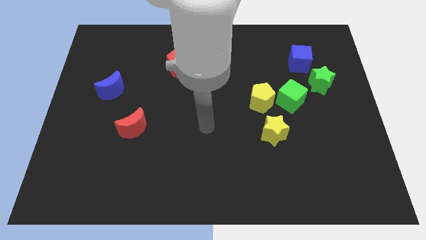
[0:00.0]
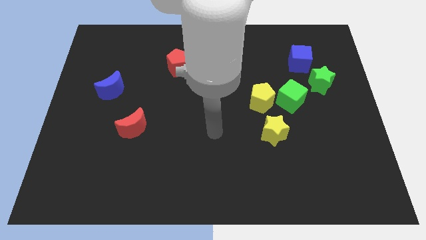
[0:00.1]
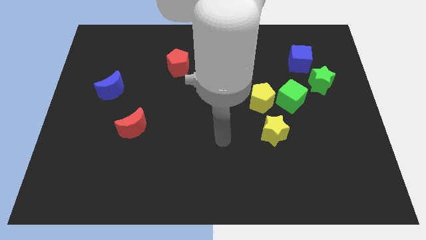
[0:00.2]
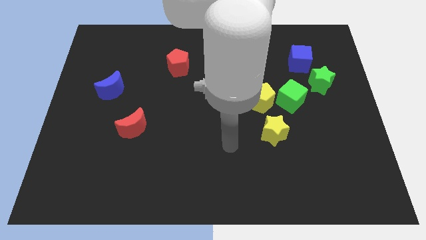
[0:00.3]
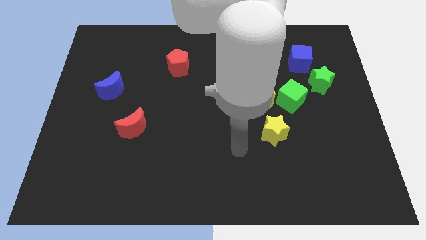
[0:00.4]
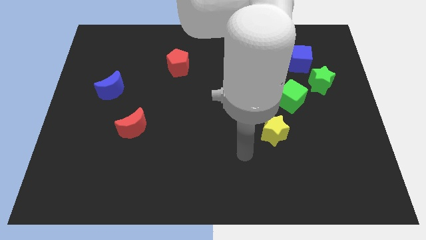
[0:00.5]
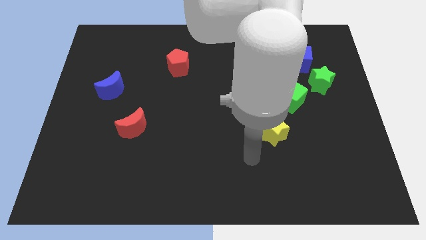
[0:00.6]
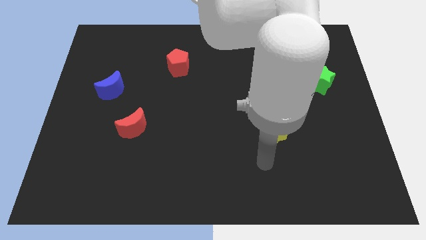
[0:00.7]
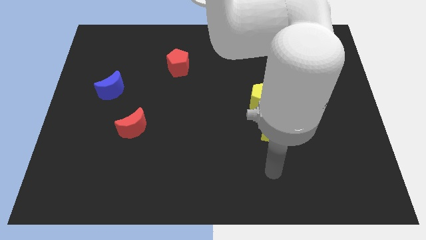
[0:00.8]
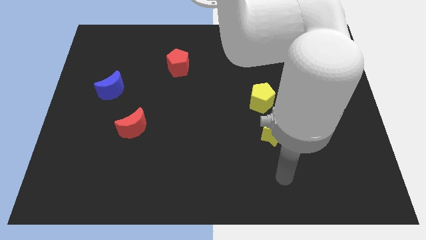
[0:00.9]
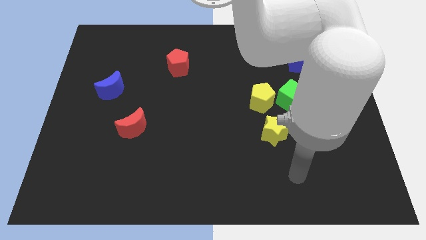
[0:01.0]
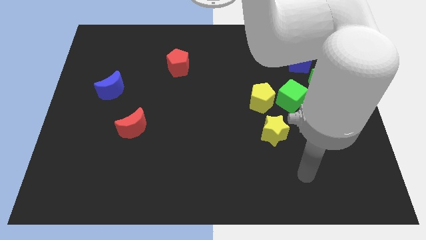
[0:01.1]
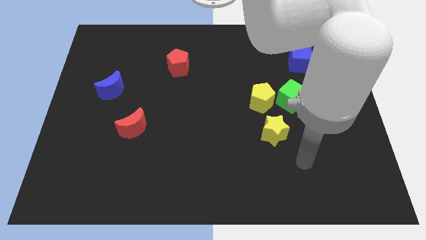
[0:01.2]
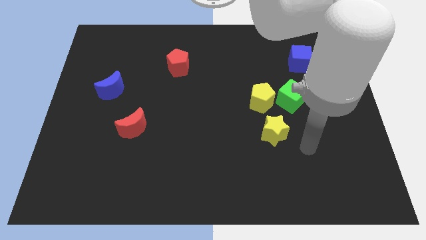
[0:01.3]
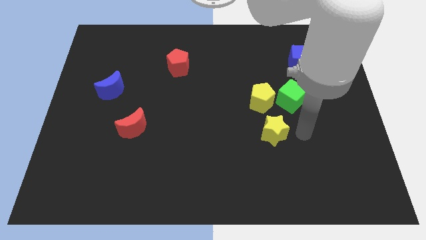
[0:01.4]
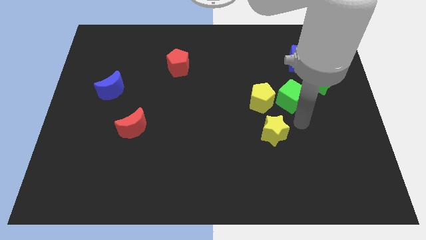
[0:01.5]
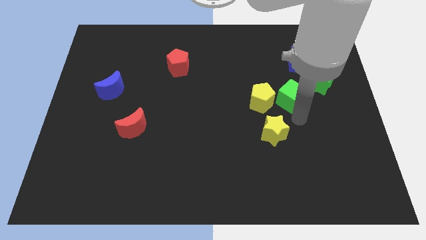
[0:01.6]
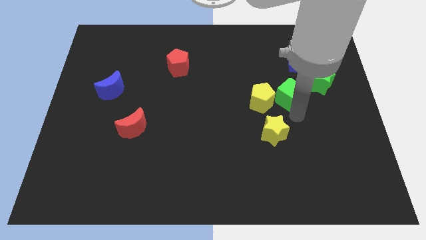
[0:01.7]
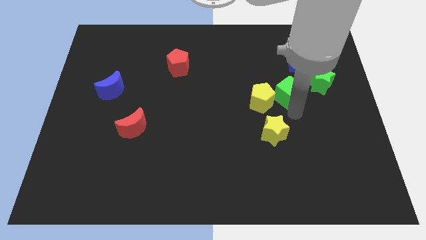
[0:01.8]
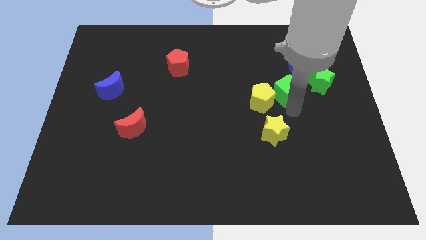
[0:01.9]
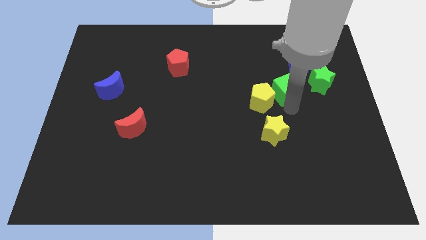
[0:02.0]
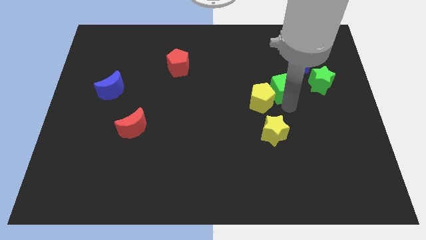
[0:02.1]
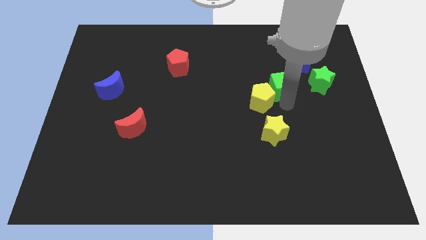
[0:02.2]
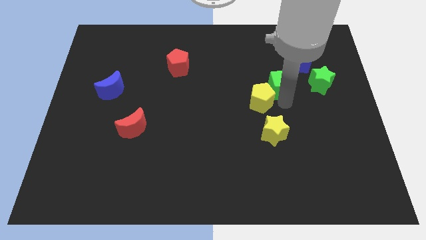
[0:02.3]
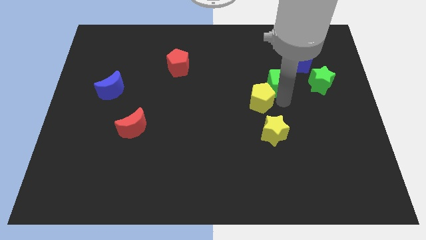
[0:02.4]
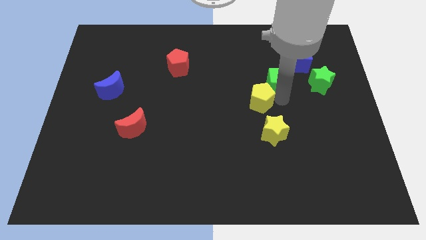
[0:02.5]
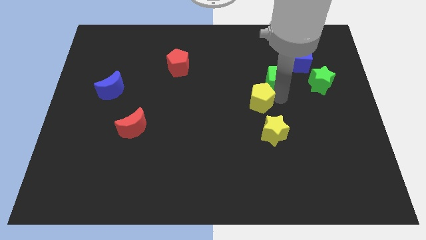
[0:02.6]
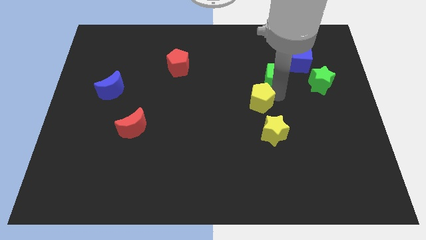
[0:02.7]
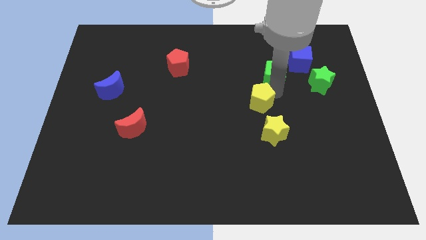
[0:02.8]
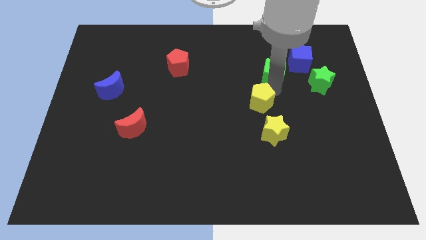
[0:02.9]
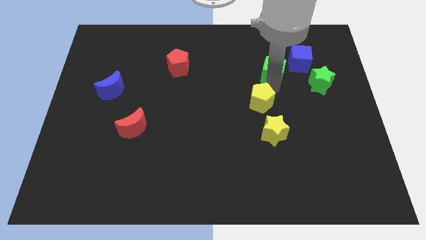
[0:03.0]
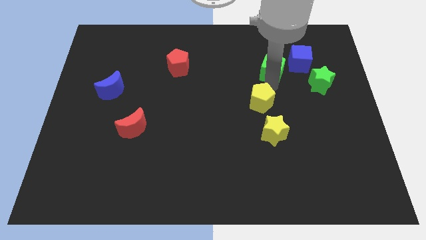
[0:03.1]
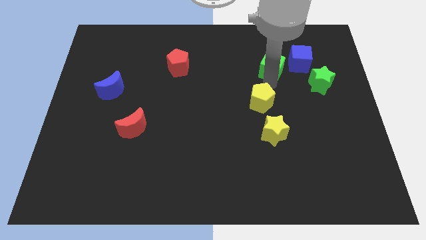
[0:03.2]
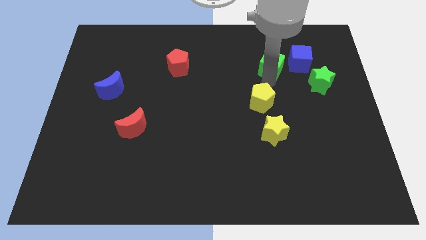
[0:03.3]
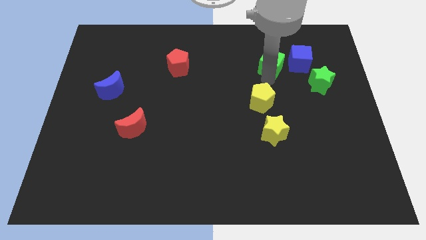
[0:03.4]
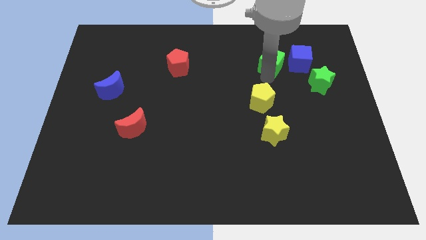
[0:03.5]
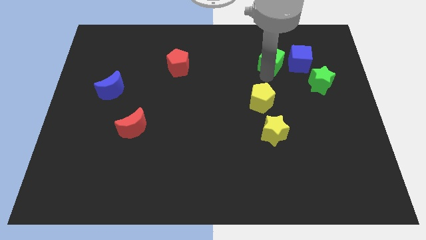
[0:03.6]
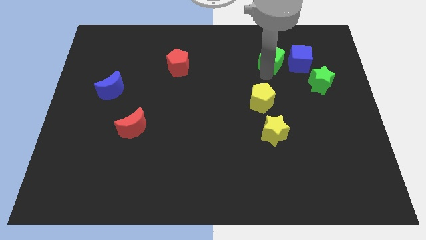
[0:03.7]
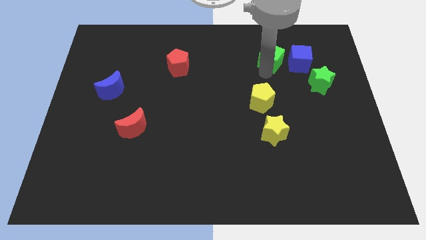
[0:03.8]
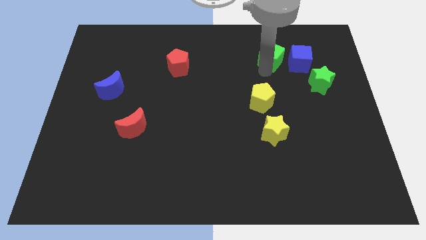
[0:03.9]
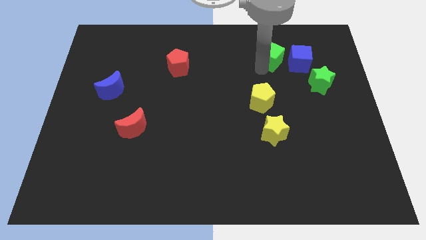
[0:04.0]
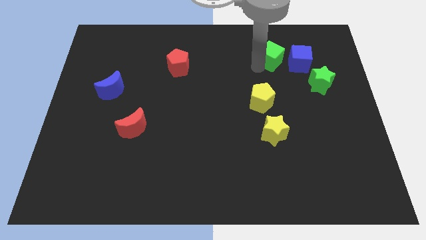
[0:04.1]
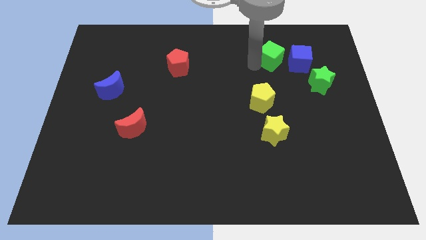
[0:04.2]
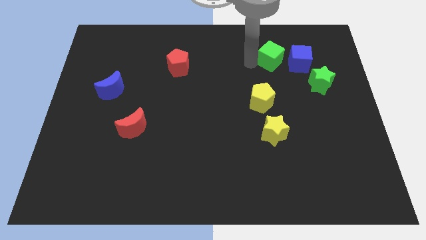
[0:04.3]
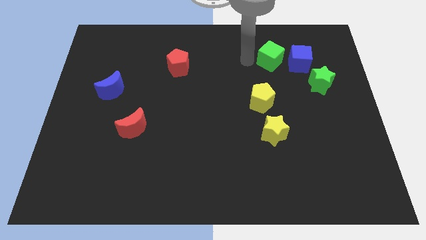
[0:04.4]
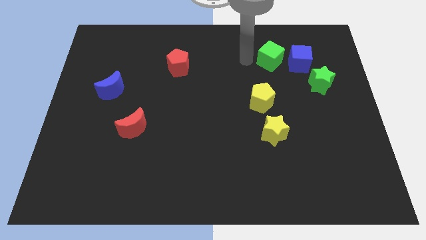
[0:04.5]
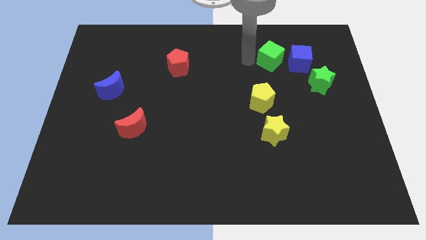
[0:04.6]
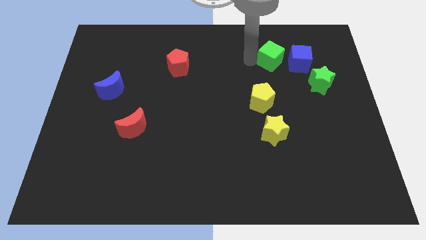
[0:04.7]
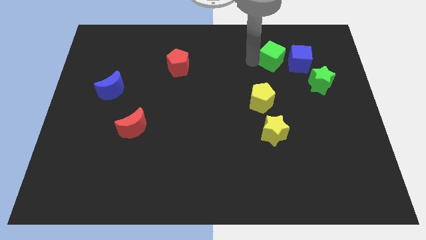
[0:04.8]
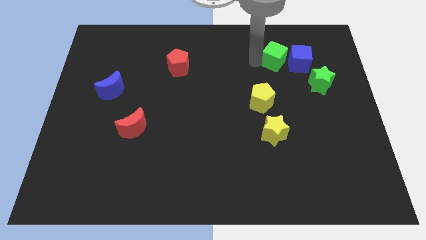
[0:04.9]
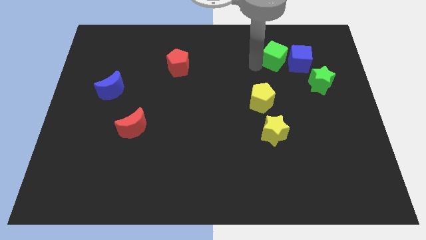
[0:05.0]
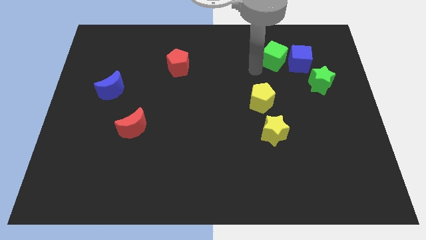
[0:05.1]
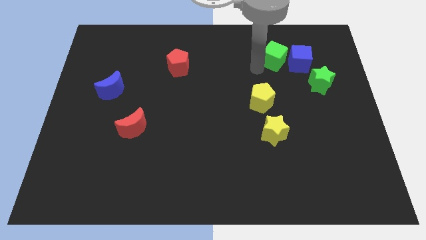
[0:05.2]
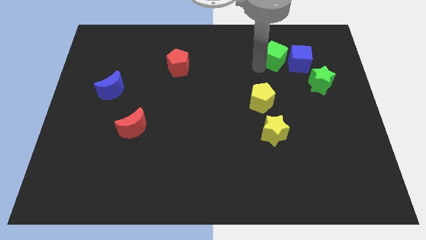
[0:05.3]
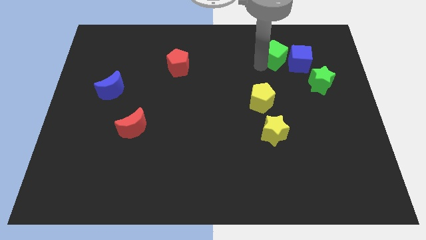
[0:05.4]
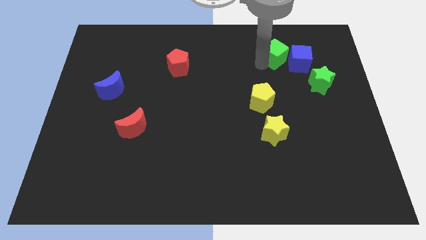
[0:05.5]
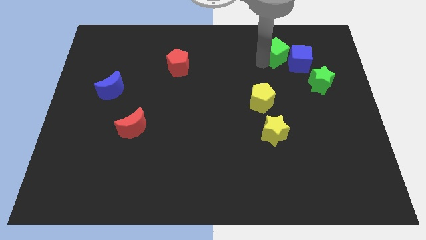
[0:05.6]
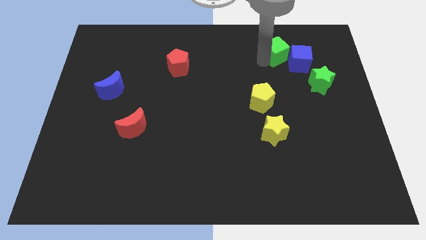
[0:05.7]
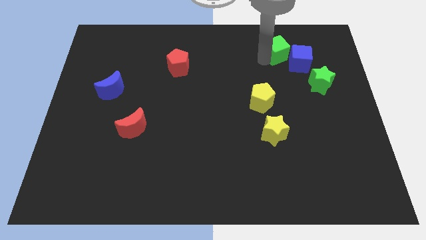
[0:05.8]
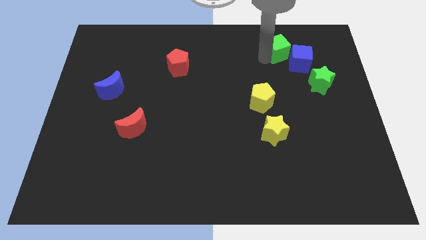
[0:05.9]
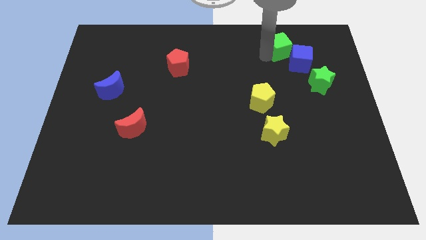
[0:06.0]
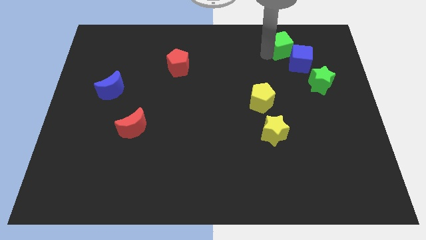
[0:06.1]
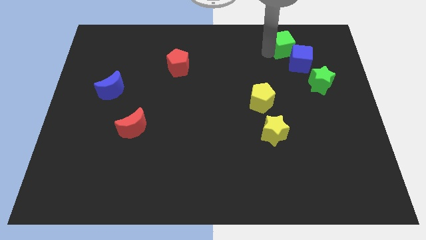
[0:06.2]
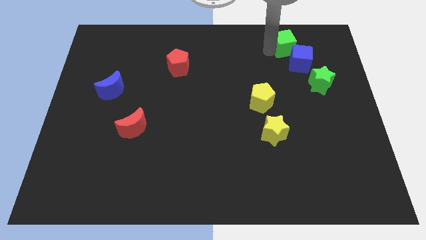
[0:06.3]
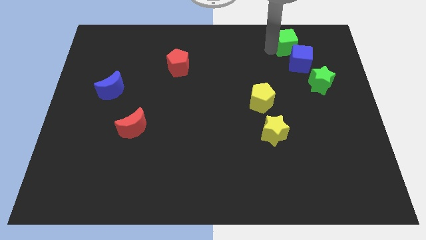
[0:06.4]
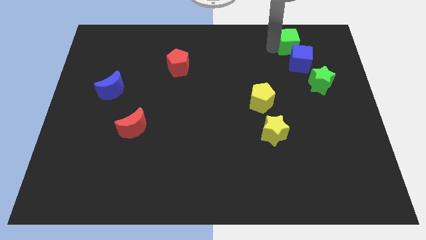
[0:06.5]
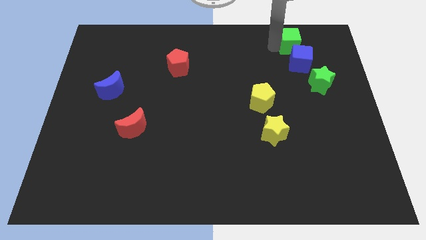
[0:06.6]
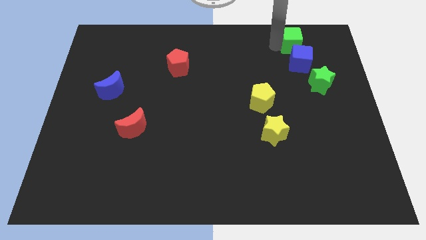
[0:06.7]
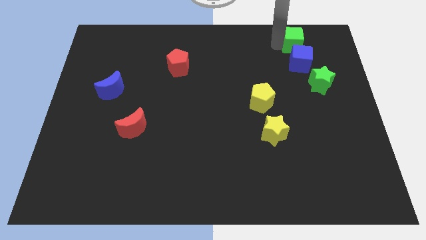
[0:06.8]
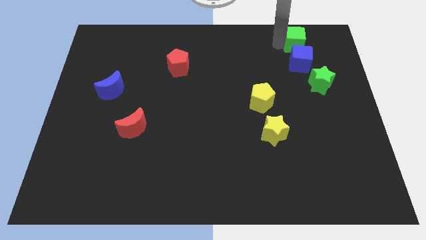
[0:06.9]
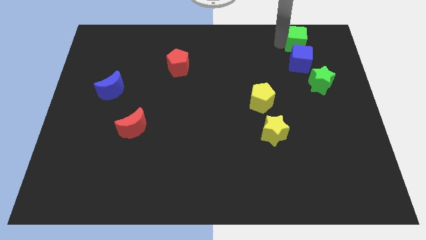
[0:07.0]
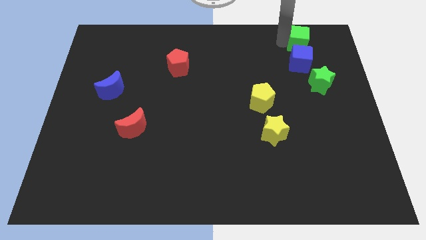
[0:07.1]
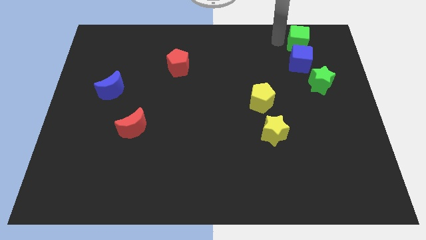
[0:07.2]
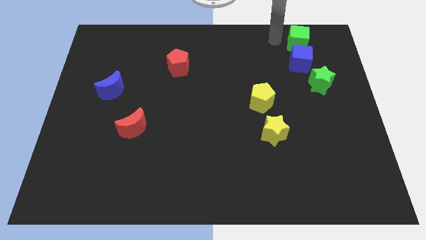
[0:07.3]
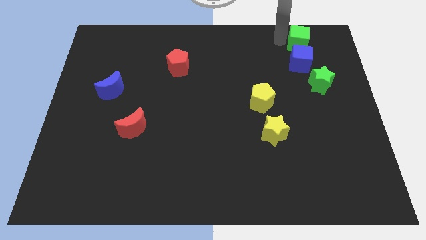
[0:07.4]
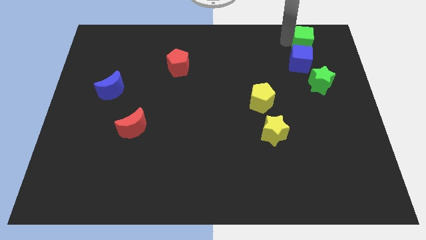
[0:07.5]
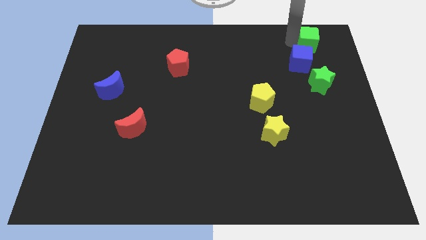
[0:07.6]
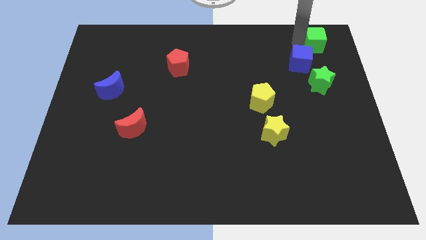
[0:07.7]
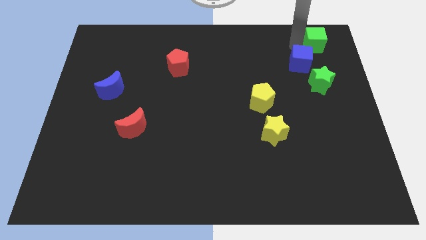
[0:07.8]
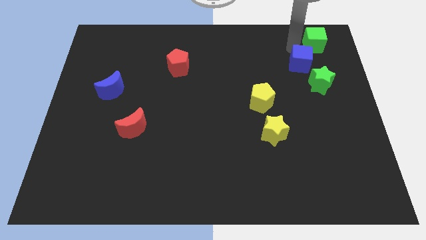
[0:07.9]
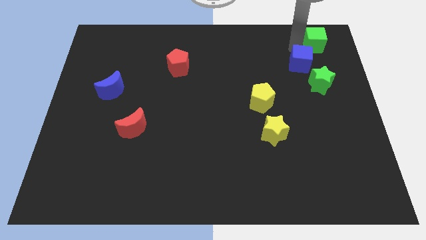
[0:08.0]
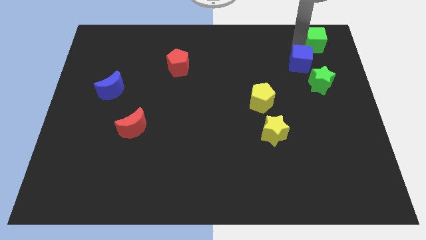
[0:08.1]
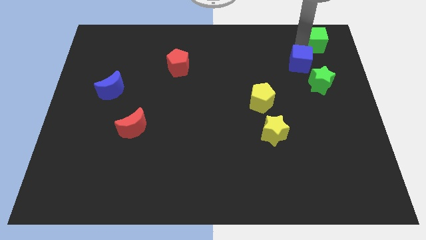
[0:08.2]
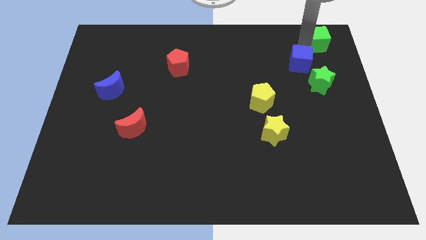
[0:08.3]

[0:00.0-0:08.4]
slide the green cube to the top right of the board
